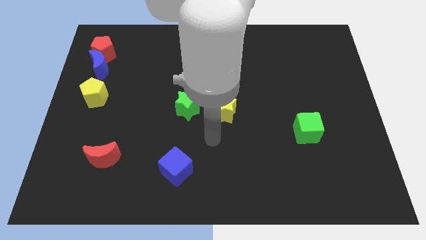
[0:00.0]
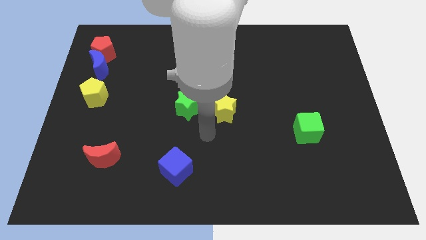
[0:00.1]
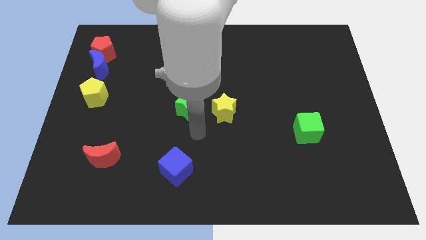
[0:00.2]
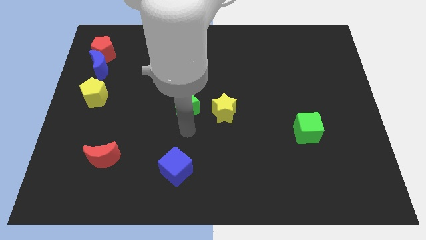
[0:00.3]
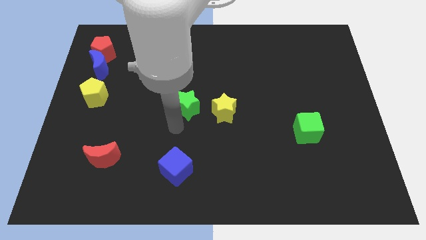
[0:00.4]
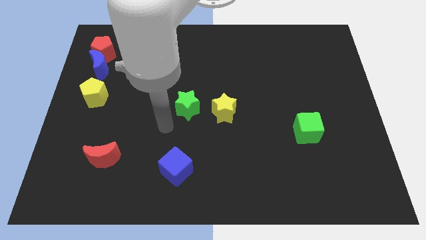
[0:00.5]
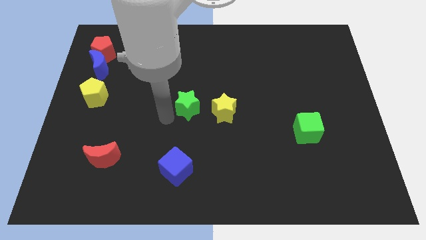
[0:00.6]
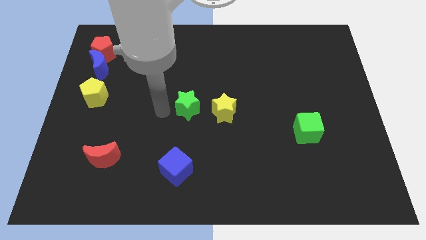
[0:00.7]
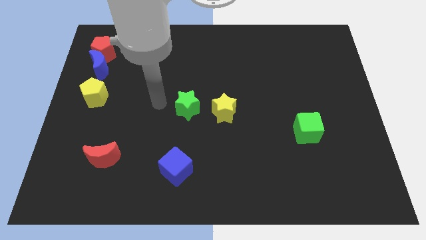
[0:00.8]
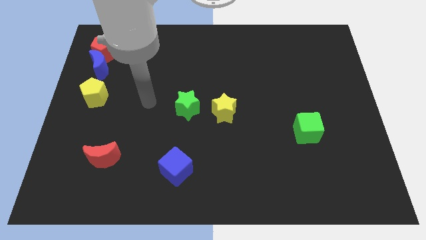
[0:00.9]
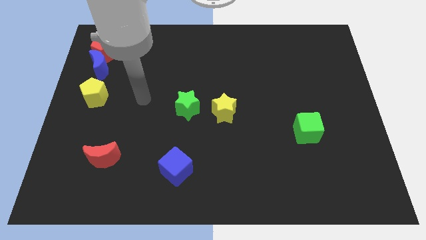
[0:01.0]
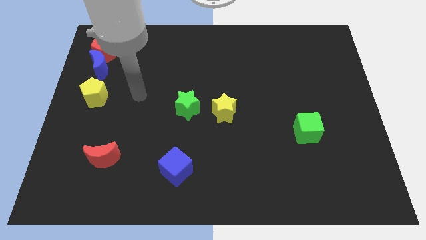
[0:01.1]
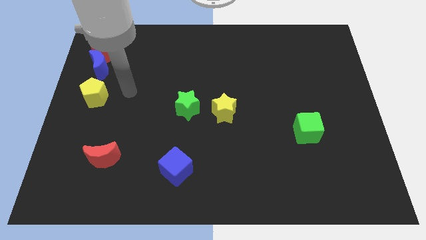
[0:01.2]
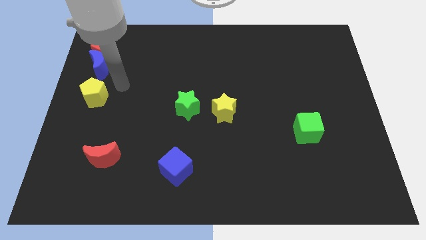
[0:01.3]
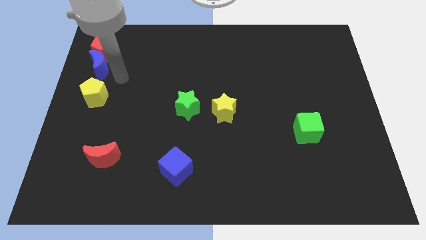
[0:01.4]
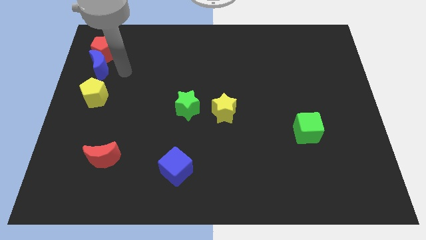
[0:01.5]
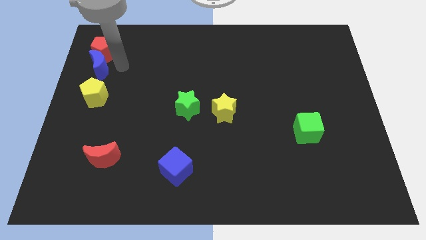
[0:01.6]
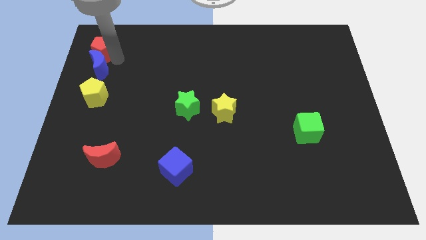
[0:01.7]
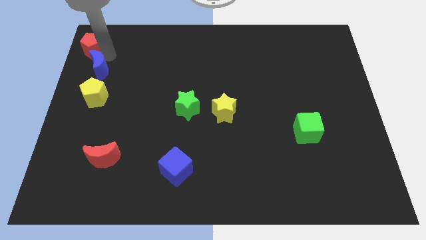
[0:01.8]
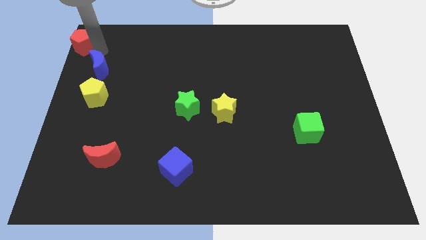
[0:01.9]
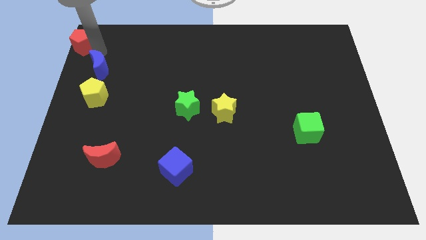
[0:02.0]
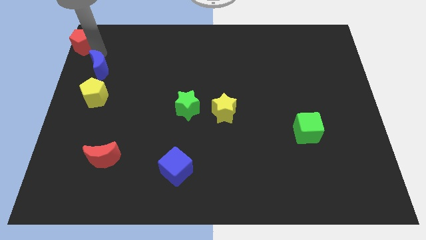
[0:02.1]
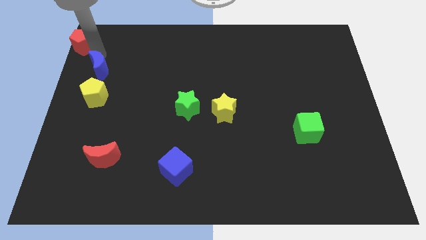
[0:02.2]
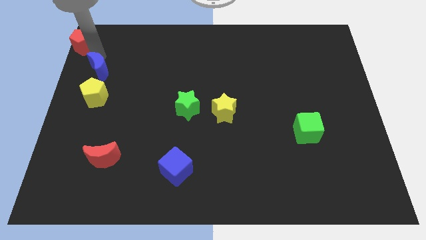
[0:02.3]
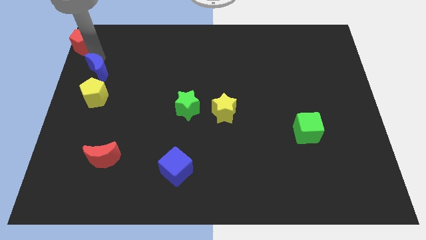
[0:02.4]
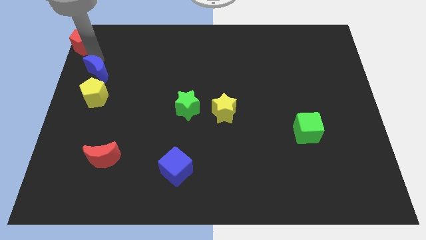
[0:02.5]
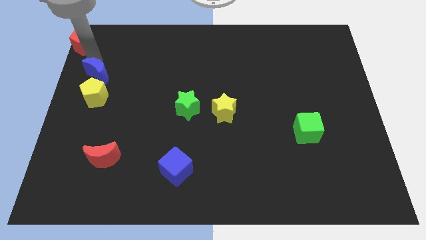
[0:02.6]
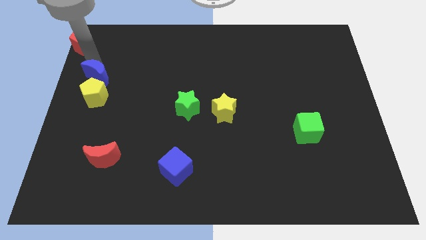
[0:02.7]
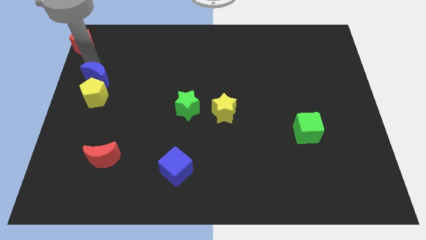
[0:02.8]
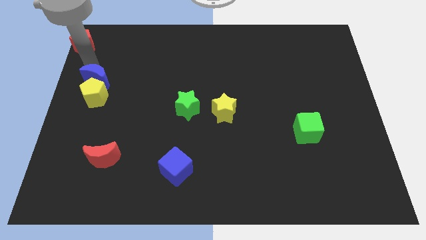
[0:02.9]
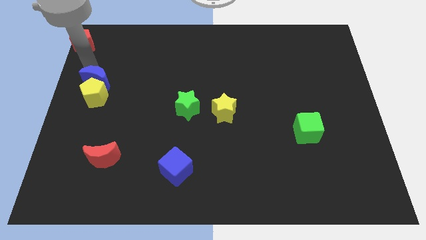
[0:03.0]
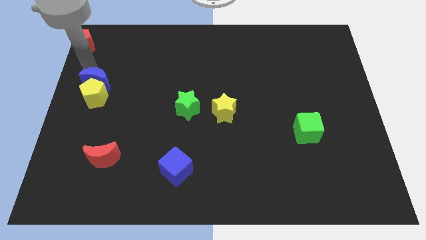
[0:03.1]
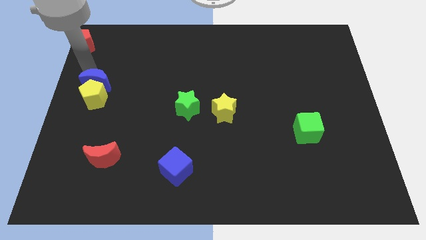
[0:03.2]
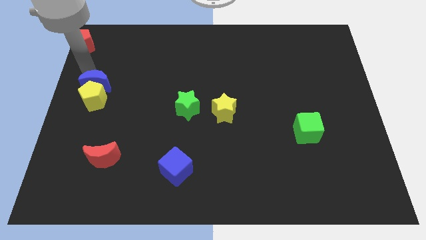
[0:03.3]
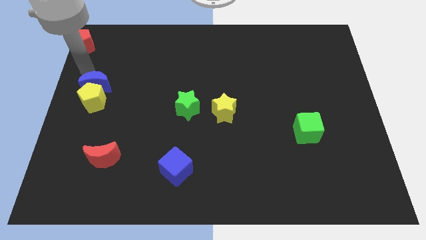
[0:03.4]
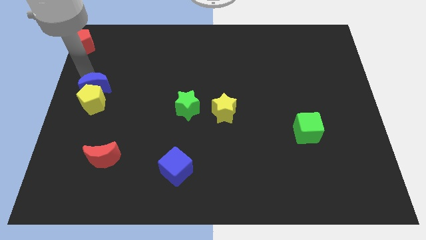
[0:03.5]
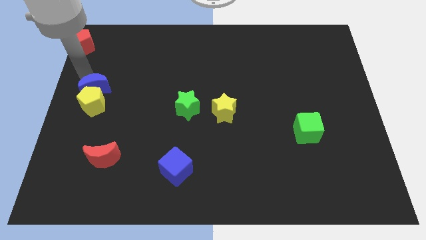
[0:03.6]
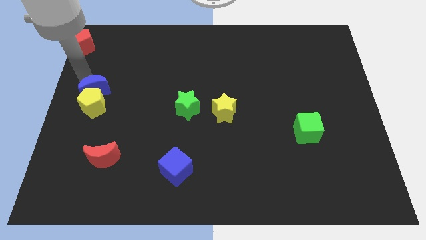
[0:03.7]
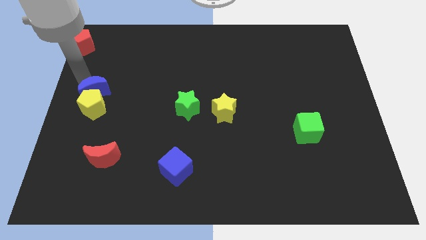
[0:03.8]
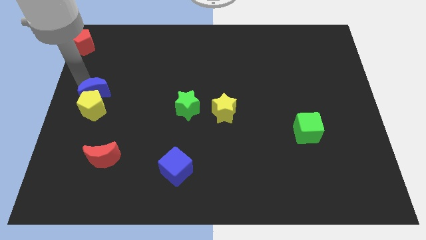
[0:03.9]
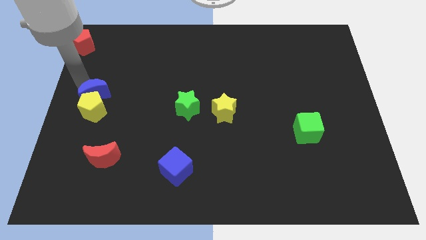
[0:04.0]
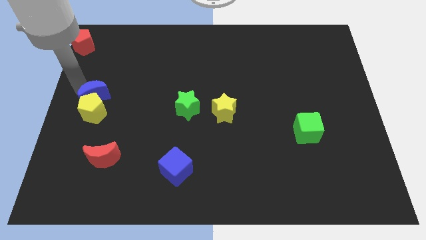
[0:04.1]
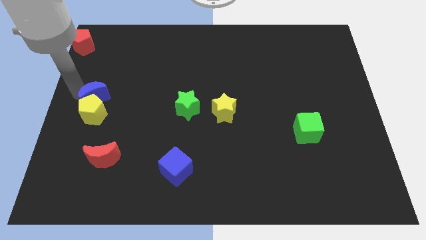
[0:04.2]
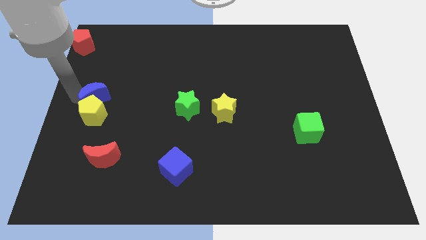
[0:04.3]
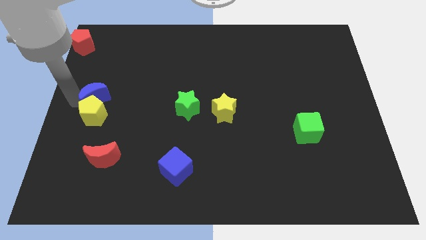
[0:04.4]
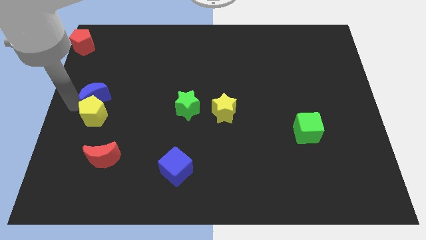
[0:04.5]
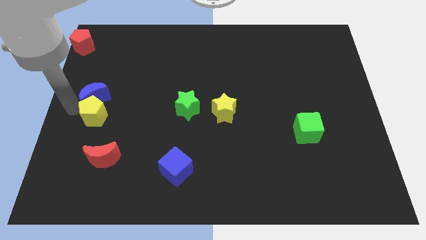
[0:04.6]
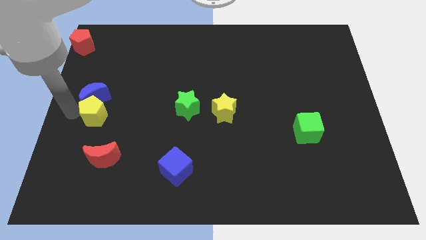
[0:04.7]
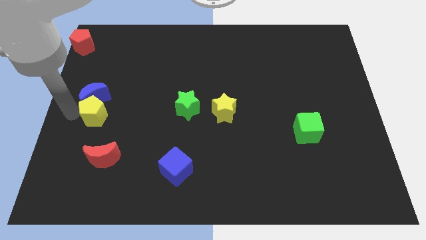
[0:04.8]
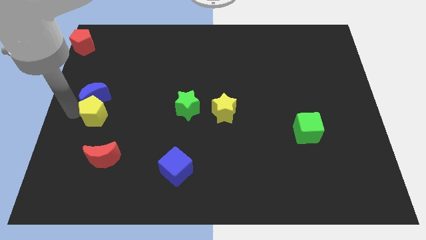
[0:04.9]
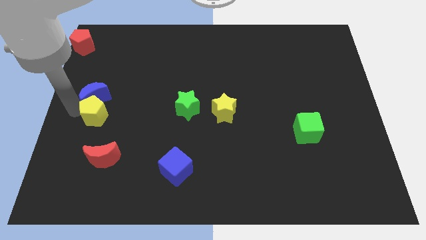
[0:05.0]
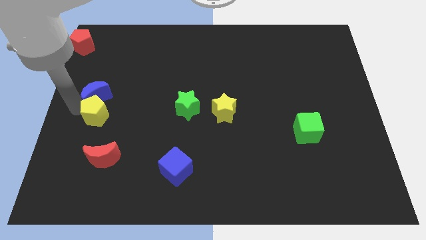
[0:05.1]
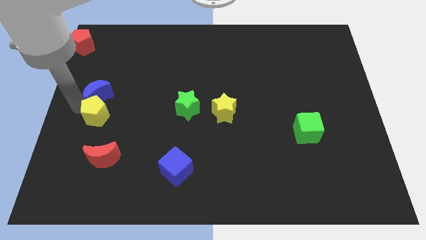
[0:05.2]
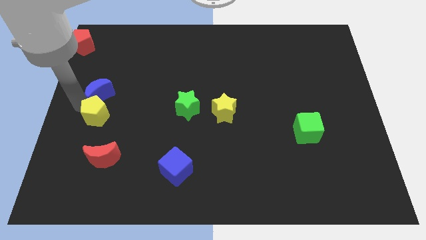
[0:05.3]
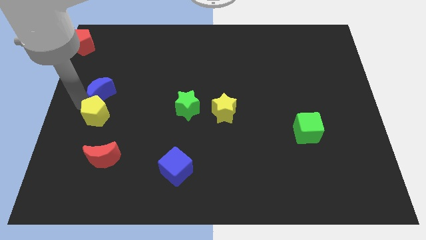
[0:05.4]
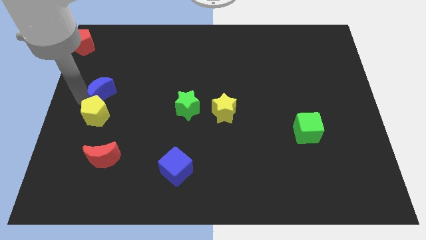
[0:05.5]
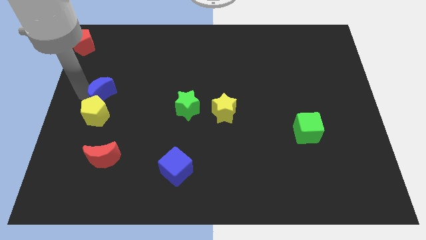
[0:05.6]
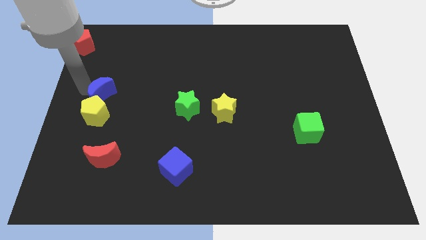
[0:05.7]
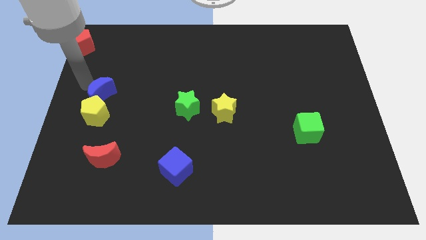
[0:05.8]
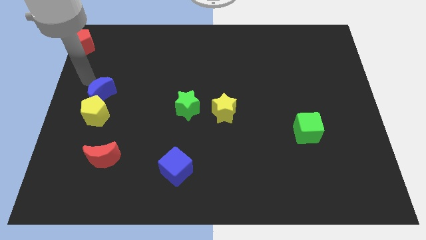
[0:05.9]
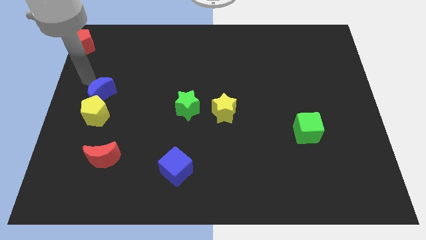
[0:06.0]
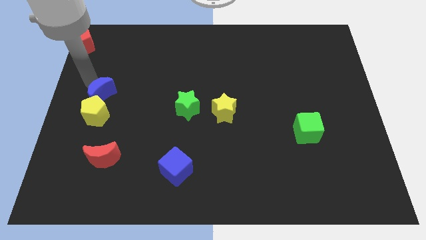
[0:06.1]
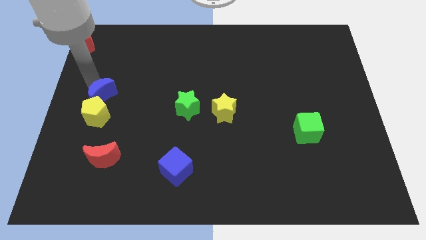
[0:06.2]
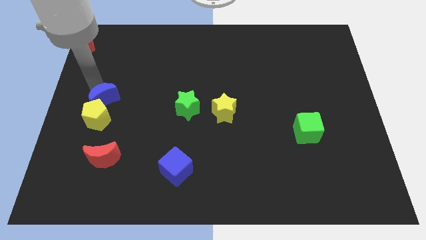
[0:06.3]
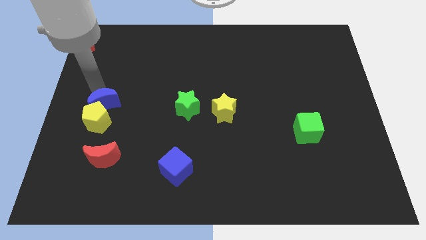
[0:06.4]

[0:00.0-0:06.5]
move the blue moon to the top of the red moon
